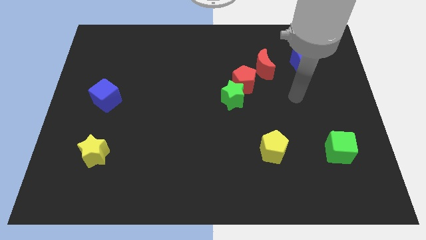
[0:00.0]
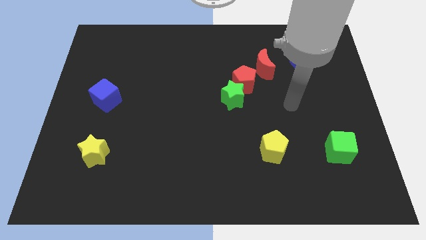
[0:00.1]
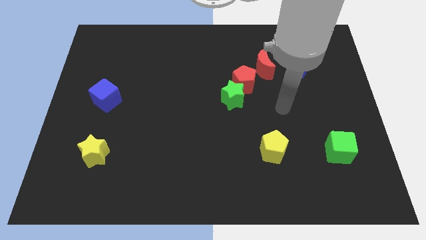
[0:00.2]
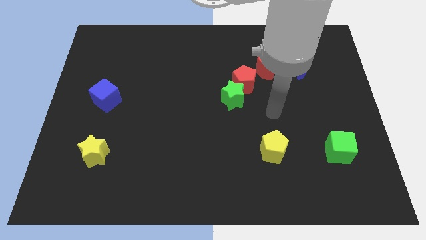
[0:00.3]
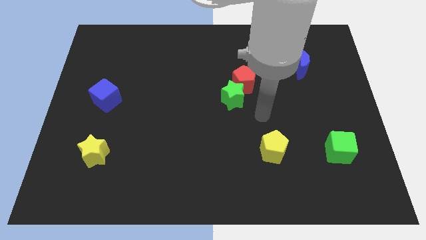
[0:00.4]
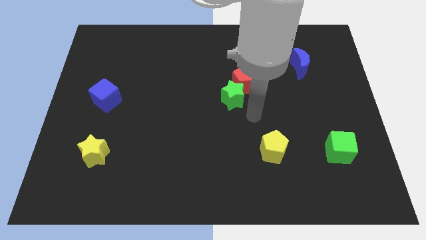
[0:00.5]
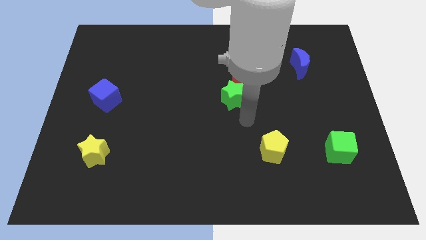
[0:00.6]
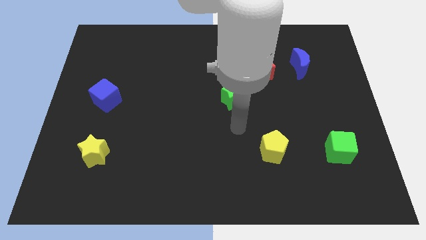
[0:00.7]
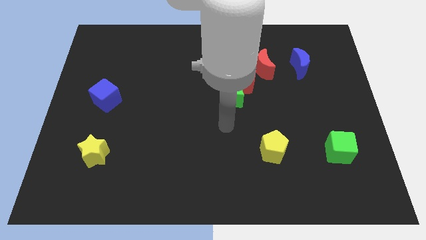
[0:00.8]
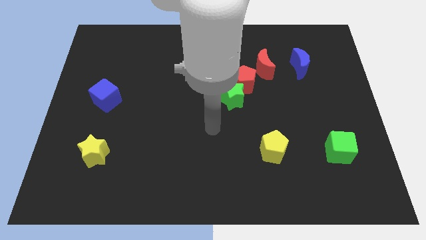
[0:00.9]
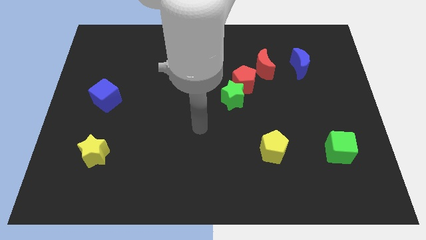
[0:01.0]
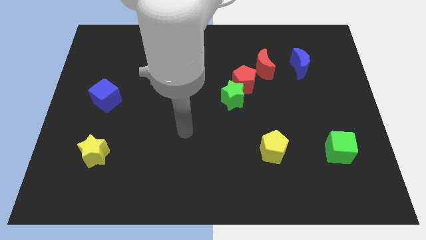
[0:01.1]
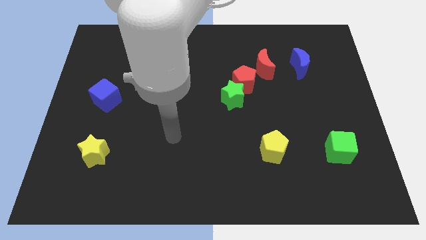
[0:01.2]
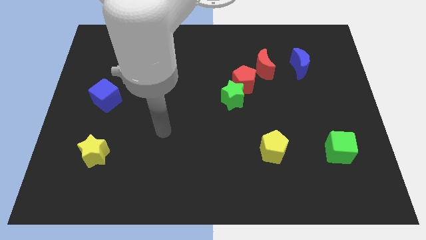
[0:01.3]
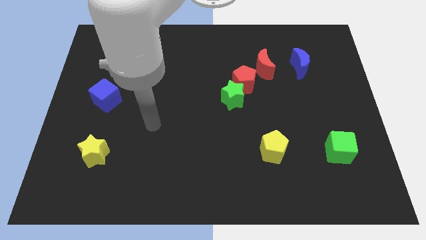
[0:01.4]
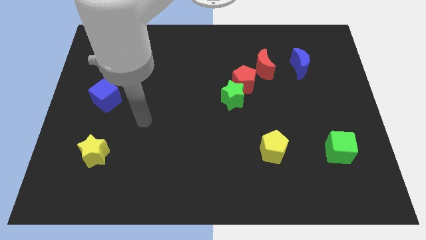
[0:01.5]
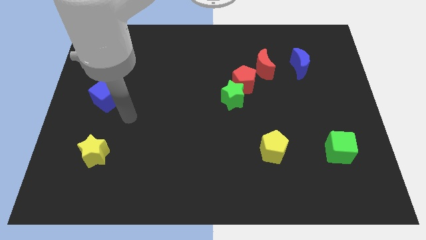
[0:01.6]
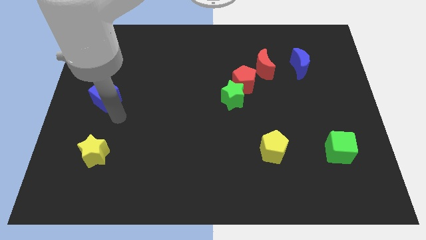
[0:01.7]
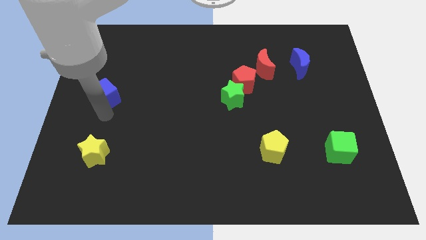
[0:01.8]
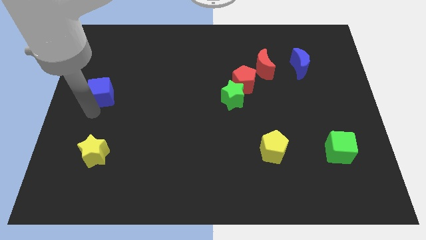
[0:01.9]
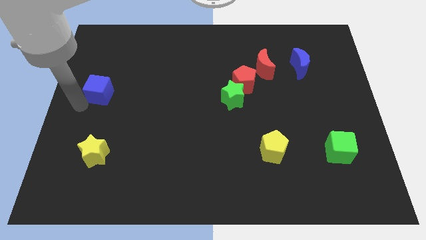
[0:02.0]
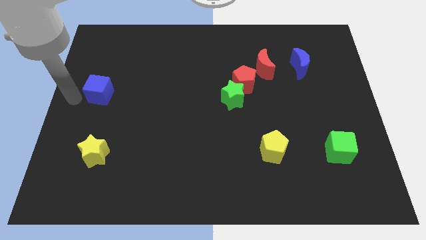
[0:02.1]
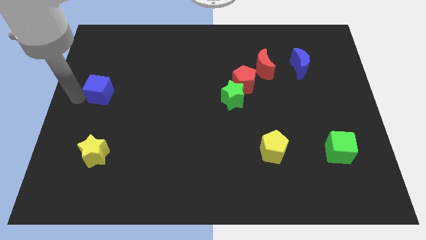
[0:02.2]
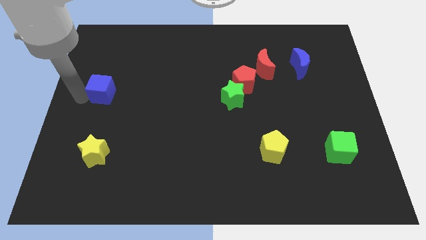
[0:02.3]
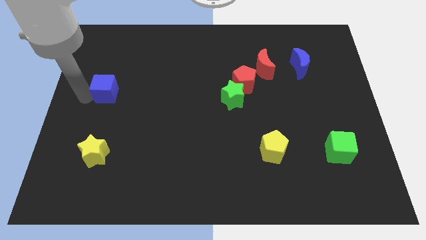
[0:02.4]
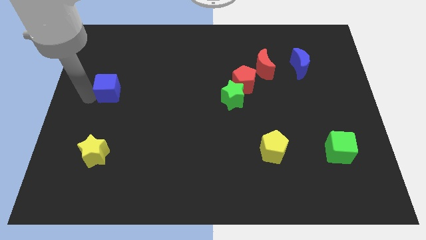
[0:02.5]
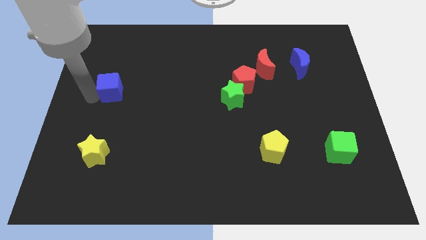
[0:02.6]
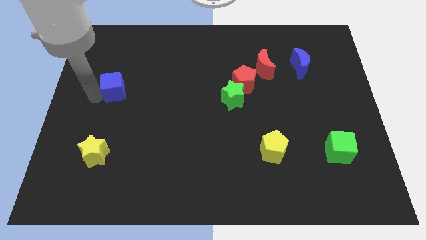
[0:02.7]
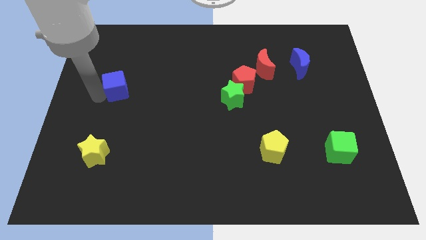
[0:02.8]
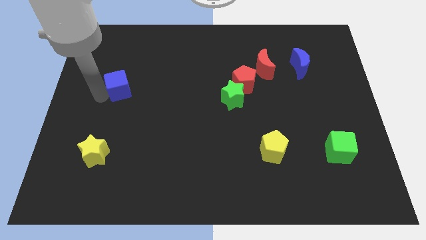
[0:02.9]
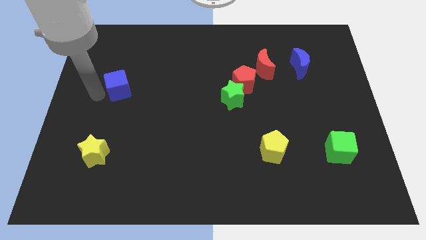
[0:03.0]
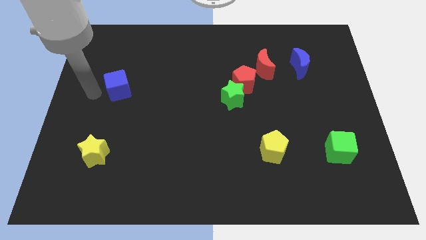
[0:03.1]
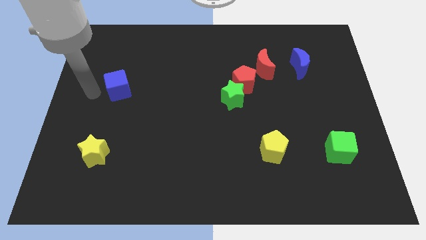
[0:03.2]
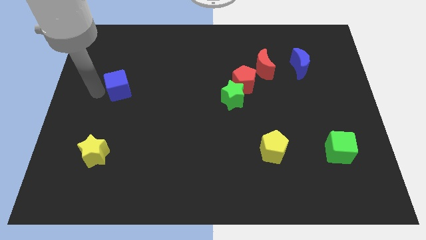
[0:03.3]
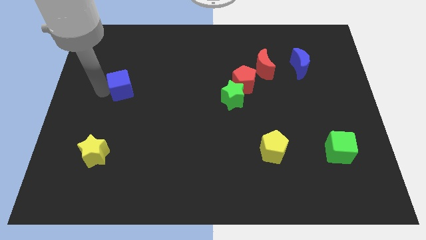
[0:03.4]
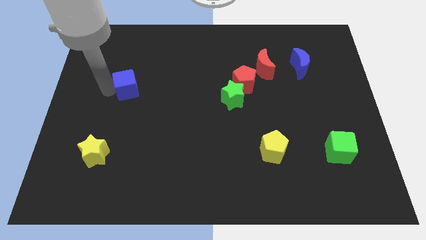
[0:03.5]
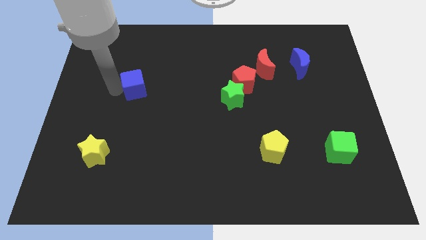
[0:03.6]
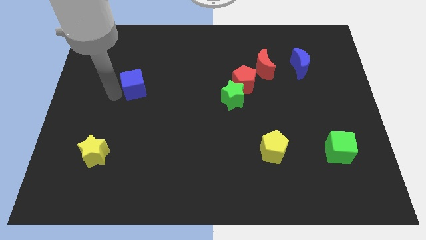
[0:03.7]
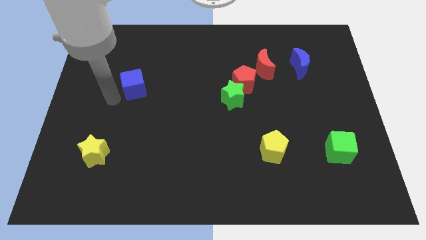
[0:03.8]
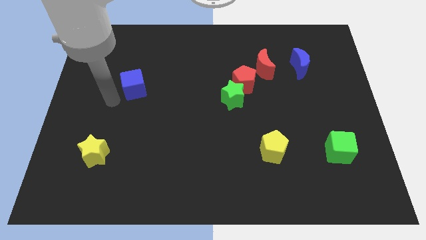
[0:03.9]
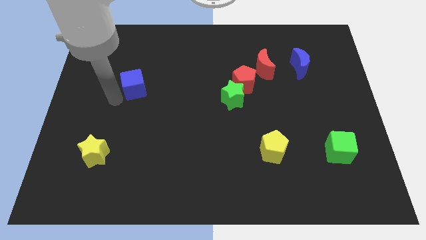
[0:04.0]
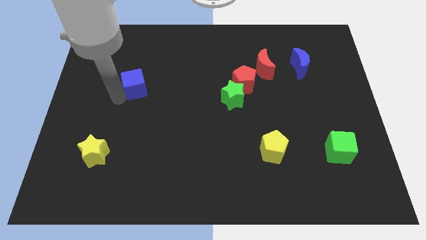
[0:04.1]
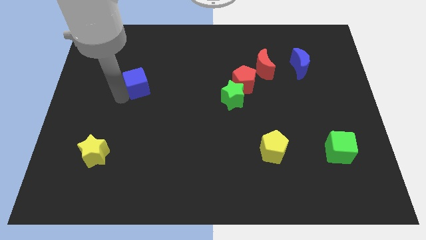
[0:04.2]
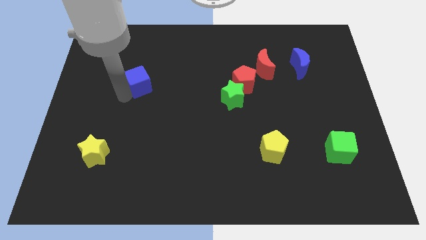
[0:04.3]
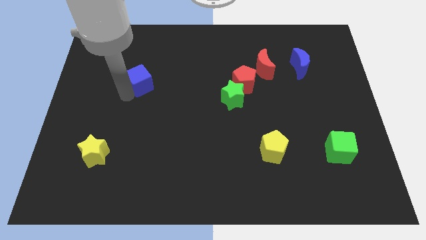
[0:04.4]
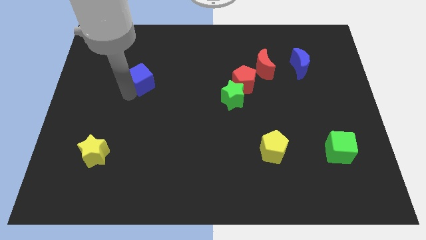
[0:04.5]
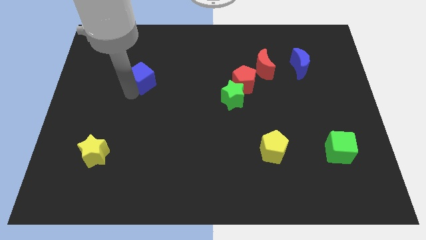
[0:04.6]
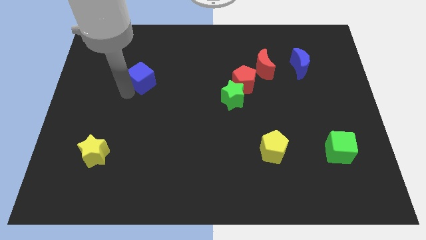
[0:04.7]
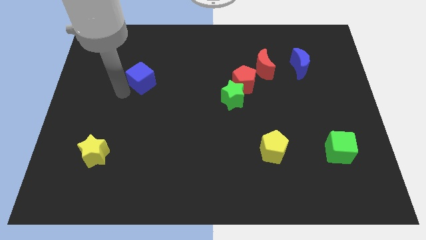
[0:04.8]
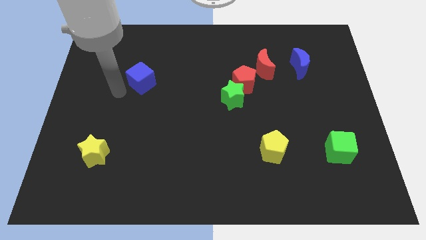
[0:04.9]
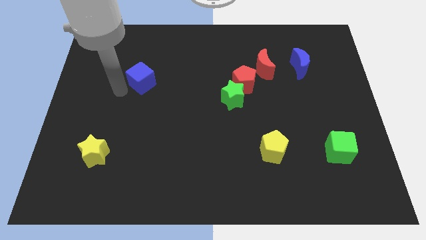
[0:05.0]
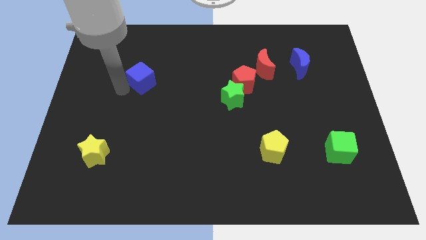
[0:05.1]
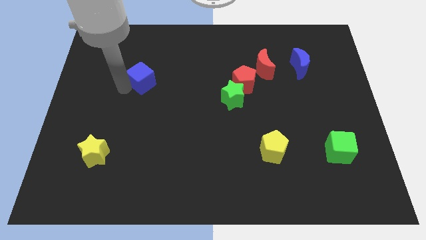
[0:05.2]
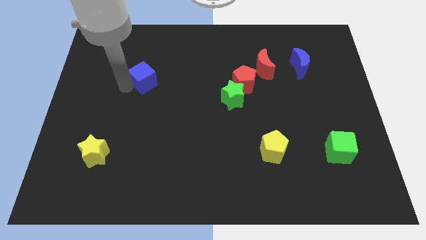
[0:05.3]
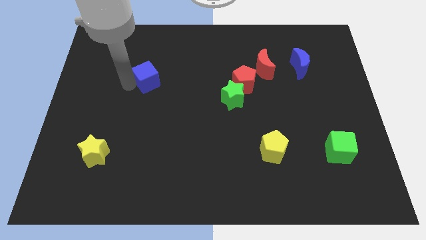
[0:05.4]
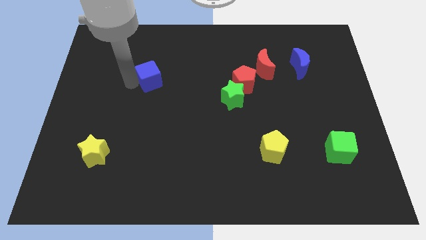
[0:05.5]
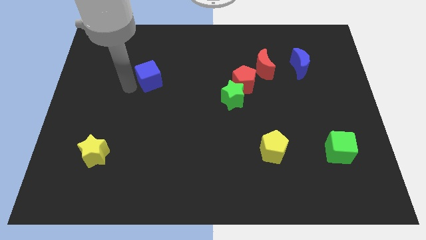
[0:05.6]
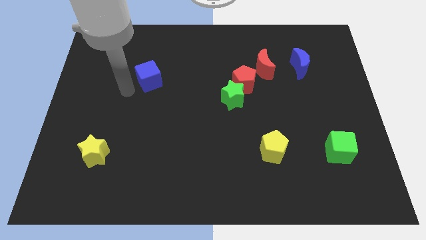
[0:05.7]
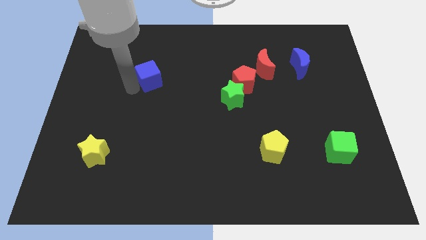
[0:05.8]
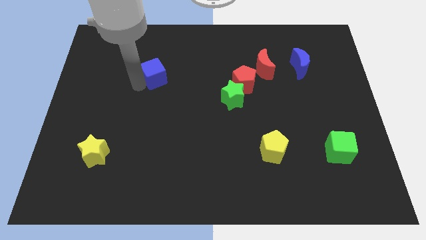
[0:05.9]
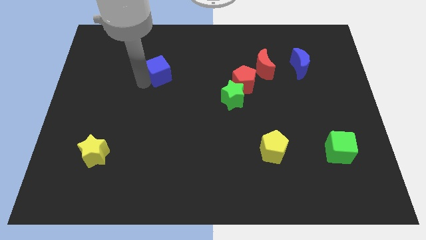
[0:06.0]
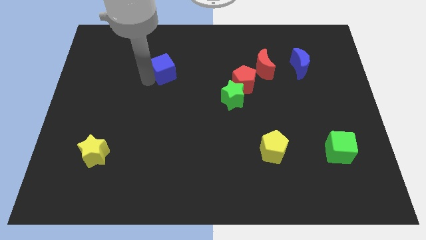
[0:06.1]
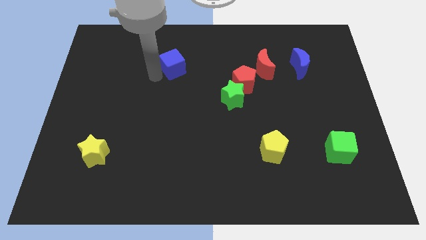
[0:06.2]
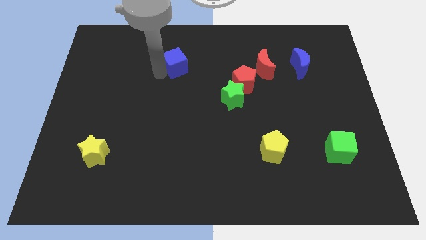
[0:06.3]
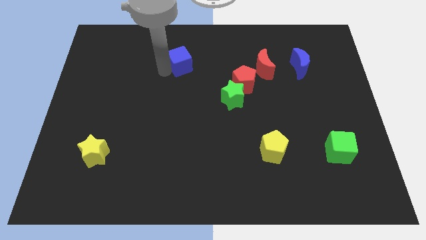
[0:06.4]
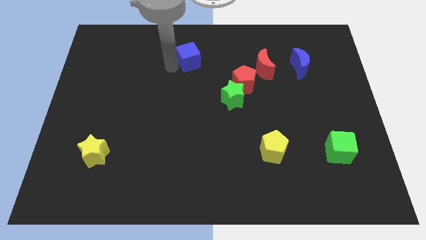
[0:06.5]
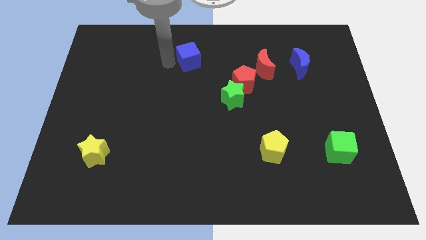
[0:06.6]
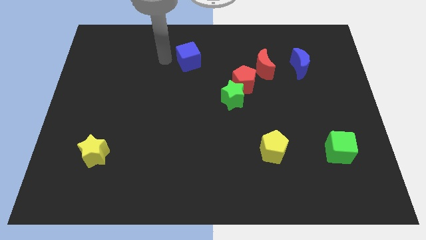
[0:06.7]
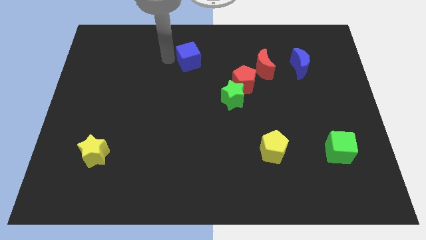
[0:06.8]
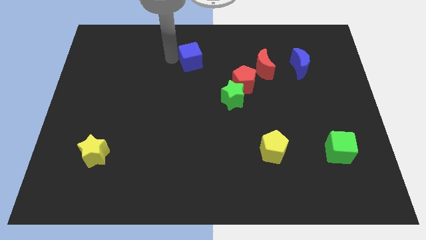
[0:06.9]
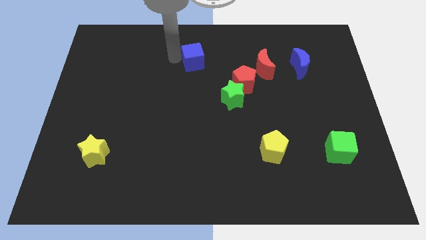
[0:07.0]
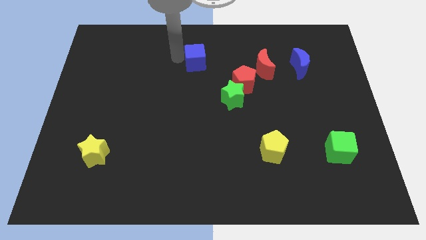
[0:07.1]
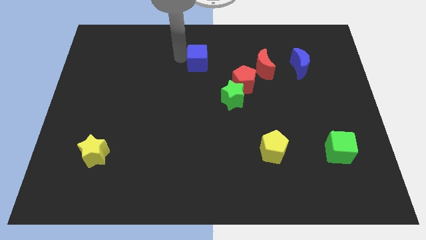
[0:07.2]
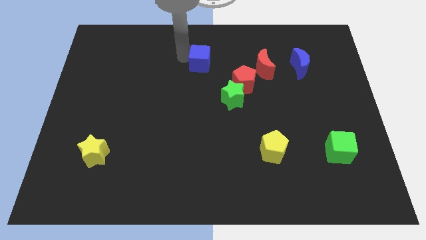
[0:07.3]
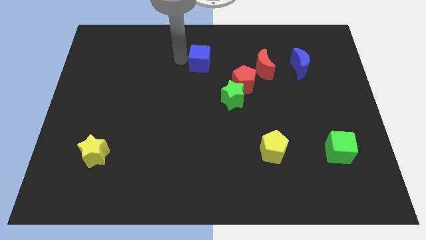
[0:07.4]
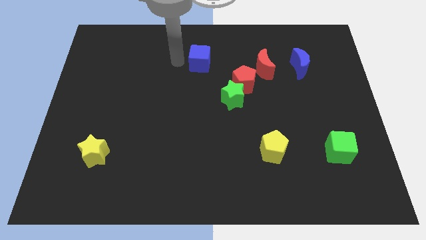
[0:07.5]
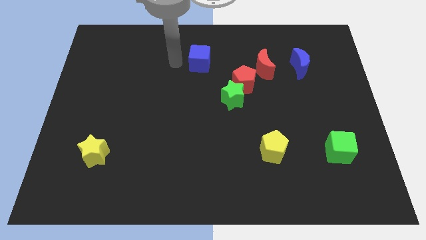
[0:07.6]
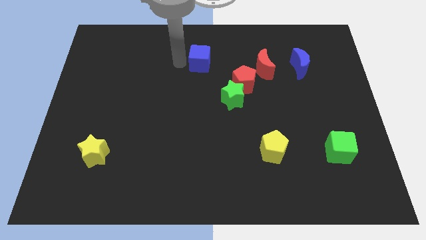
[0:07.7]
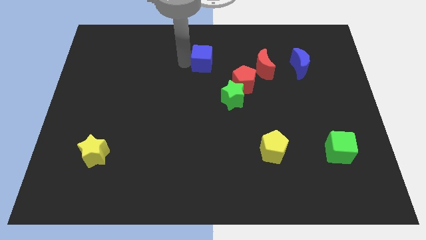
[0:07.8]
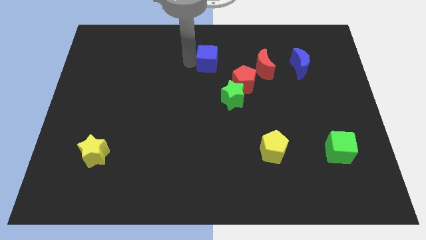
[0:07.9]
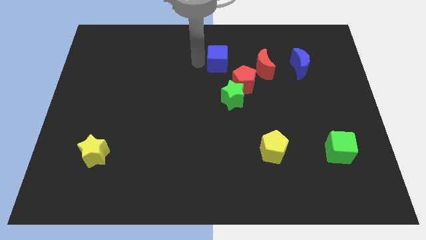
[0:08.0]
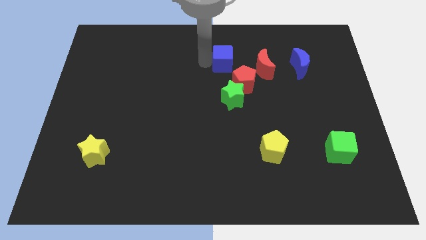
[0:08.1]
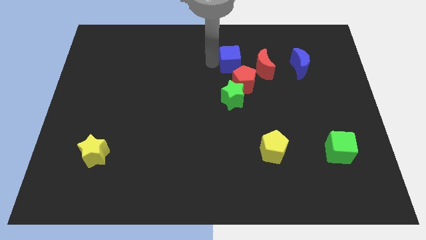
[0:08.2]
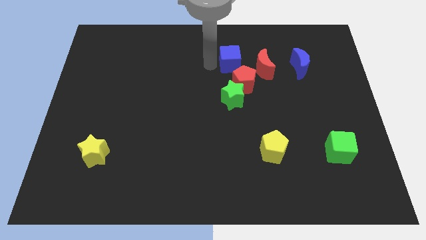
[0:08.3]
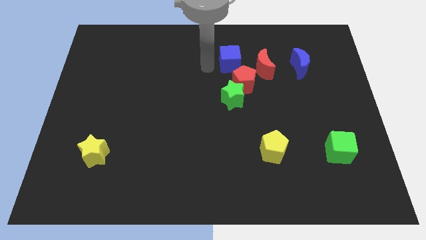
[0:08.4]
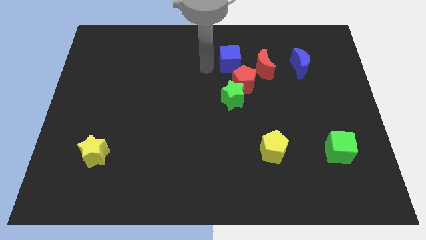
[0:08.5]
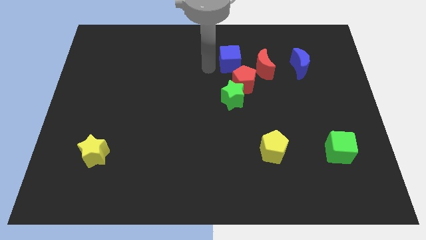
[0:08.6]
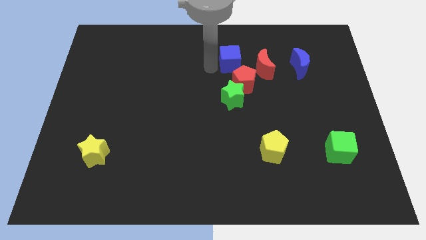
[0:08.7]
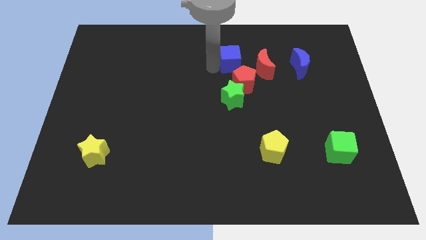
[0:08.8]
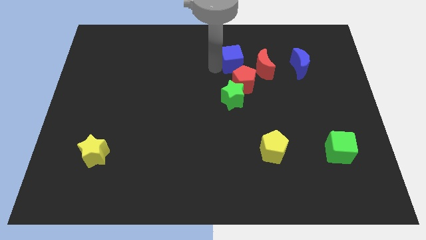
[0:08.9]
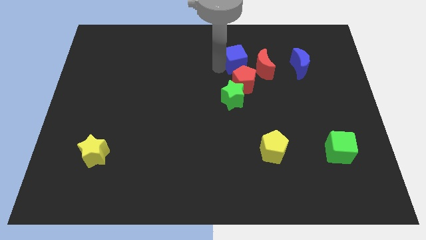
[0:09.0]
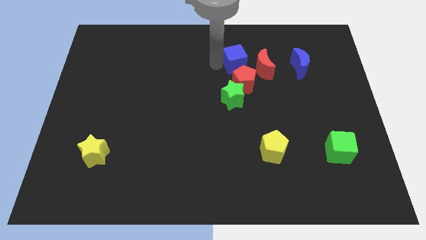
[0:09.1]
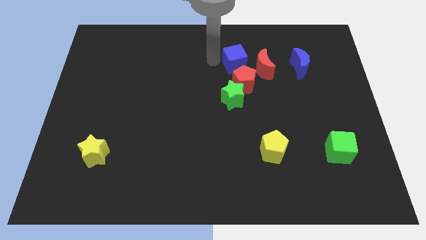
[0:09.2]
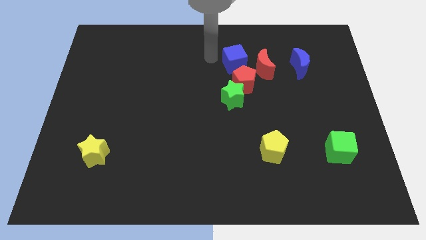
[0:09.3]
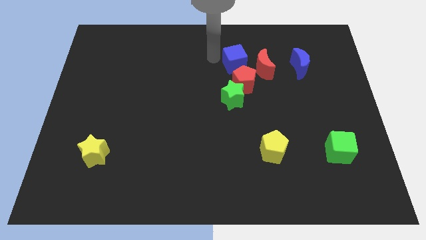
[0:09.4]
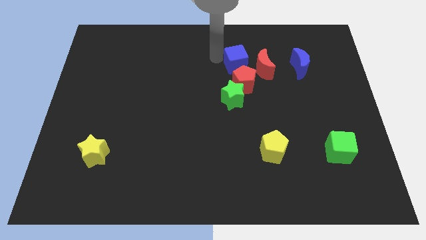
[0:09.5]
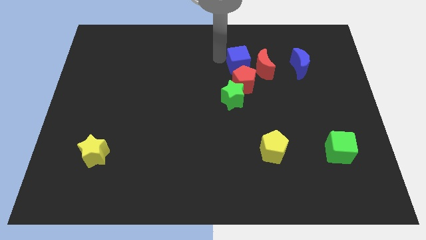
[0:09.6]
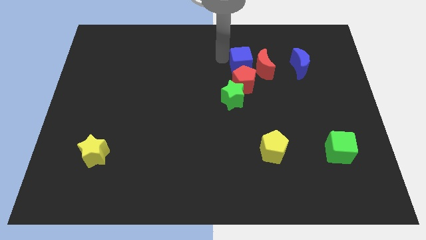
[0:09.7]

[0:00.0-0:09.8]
move the blue cube close to the red moon
